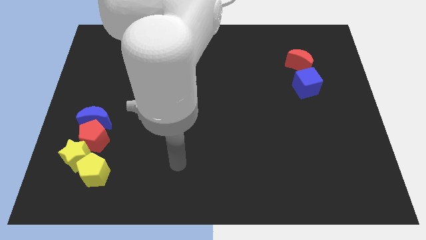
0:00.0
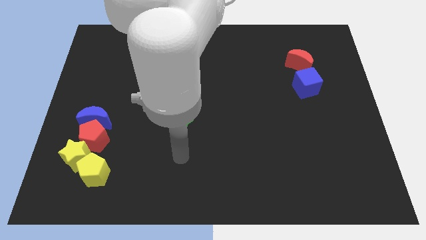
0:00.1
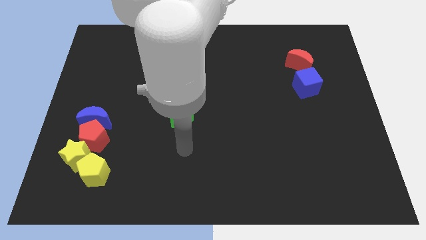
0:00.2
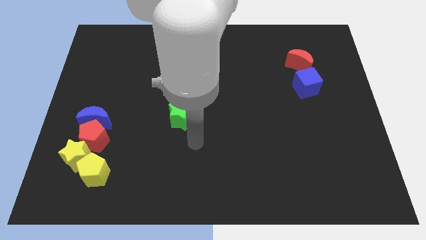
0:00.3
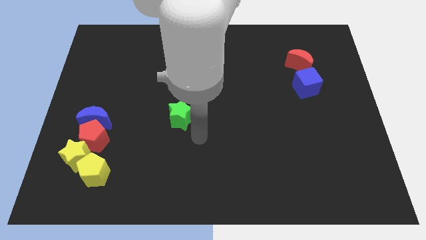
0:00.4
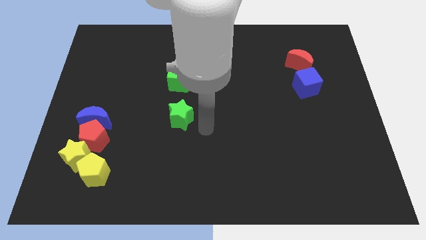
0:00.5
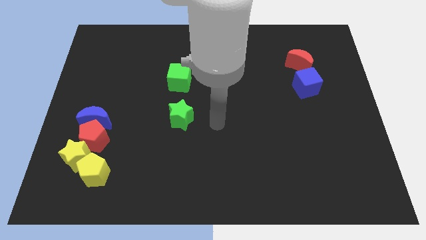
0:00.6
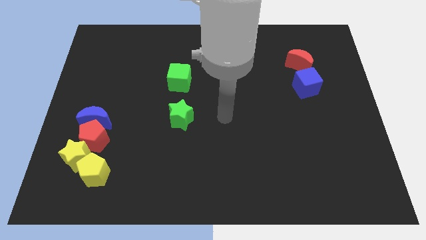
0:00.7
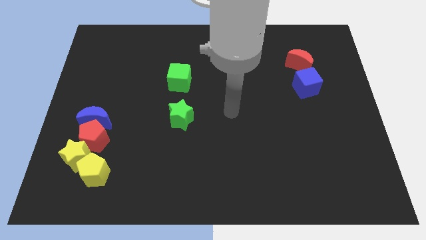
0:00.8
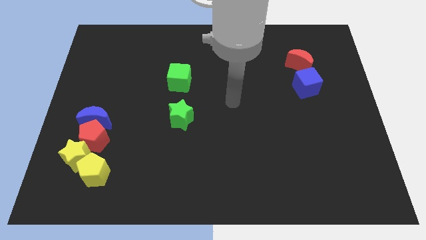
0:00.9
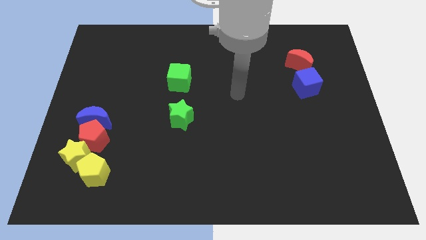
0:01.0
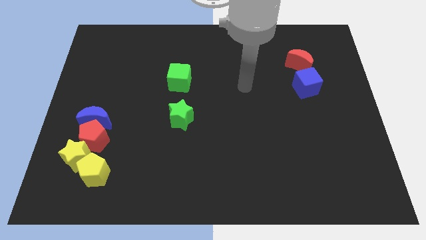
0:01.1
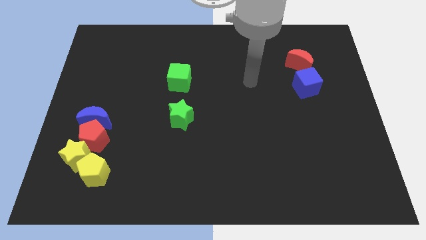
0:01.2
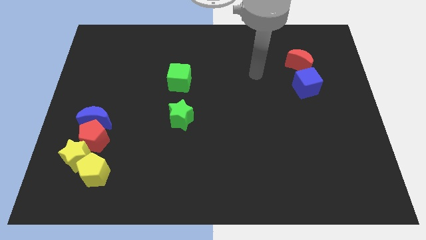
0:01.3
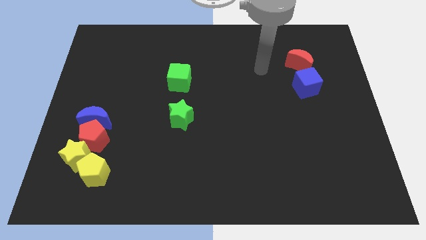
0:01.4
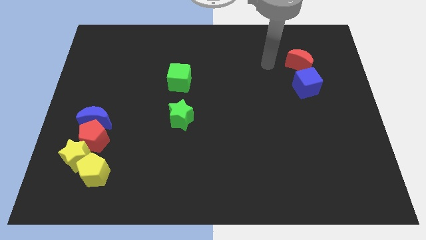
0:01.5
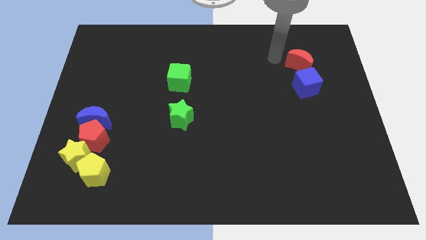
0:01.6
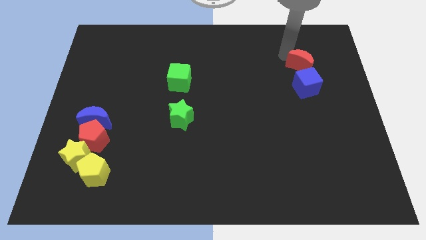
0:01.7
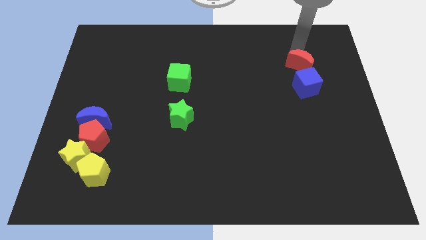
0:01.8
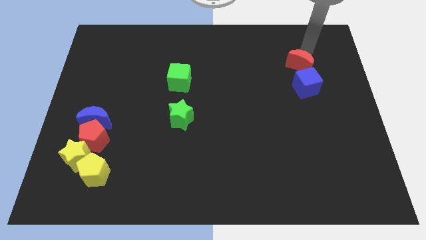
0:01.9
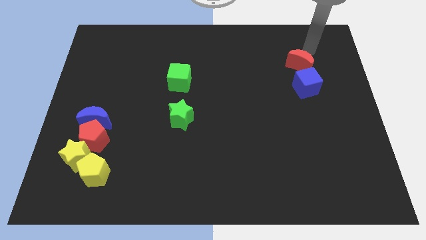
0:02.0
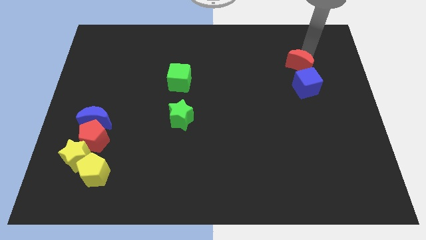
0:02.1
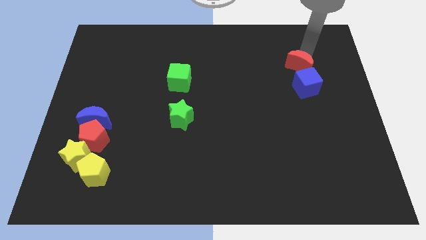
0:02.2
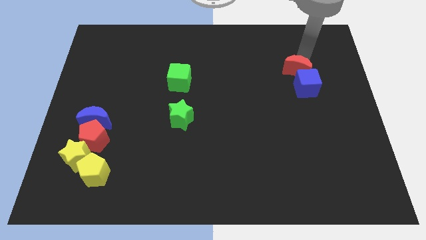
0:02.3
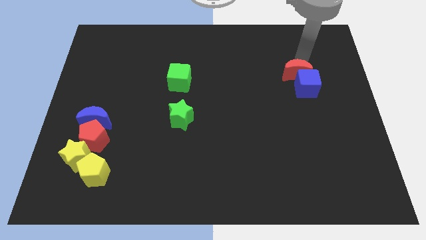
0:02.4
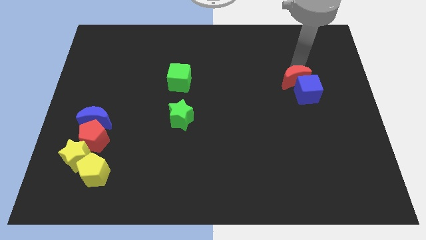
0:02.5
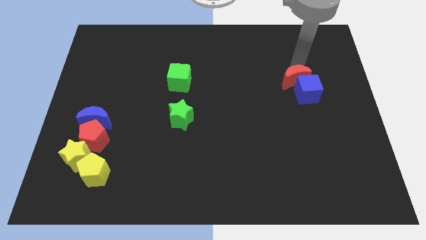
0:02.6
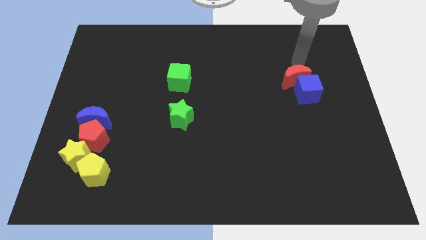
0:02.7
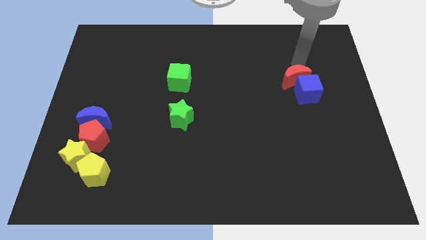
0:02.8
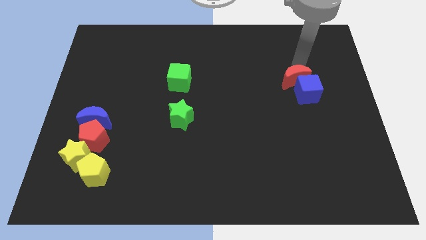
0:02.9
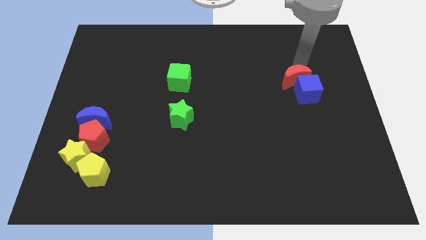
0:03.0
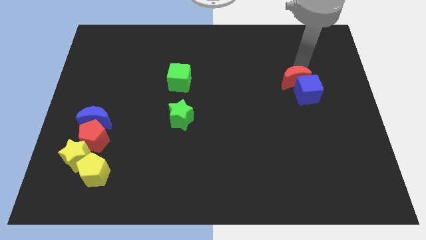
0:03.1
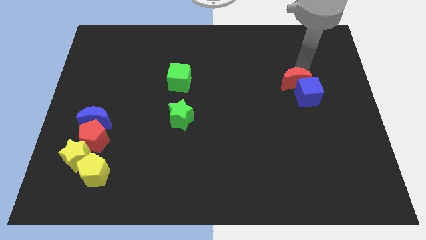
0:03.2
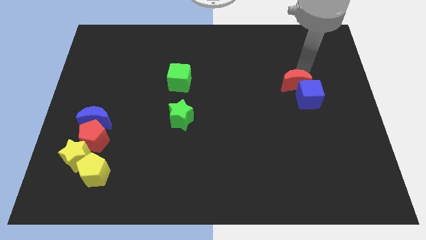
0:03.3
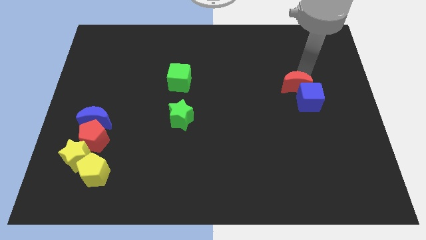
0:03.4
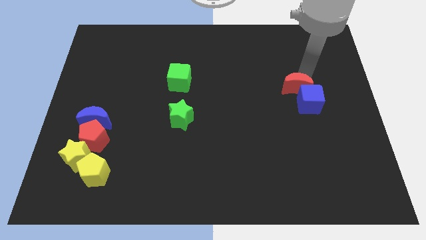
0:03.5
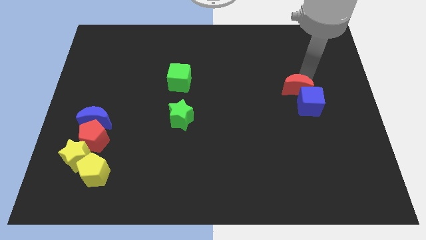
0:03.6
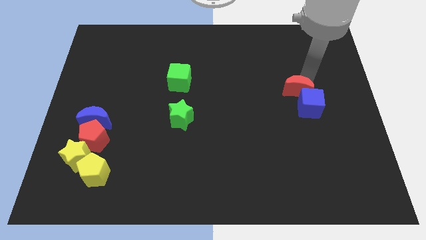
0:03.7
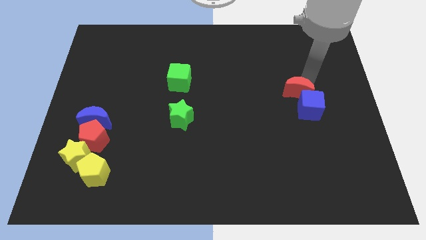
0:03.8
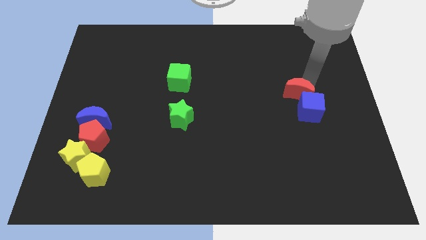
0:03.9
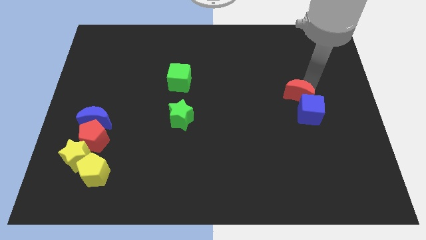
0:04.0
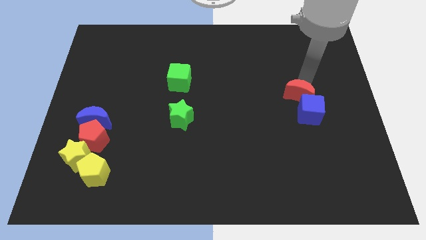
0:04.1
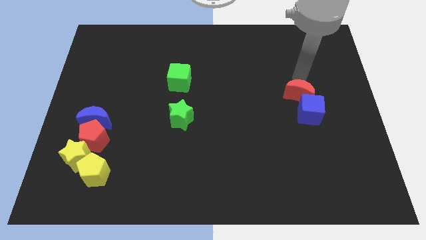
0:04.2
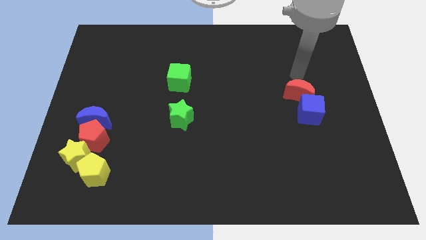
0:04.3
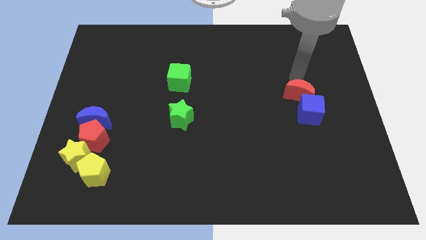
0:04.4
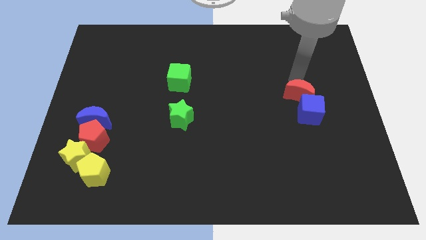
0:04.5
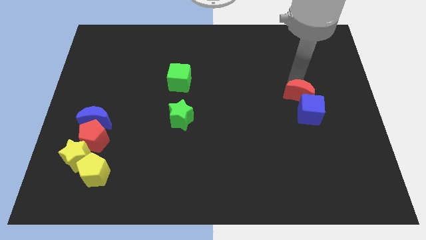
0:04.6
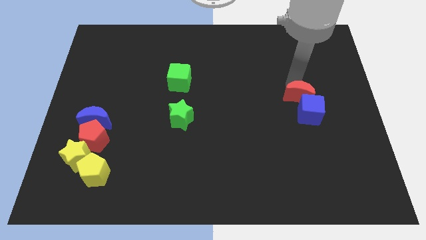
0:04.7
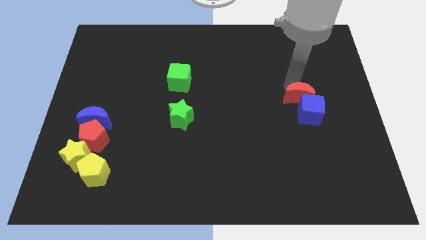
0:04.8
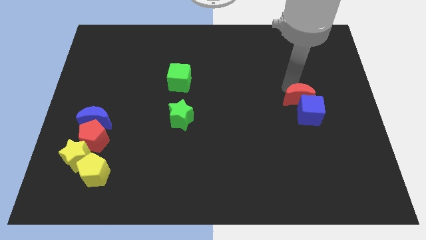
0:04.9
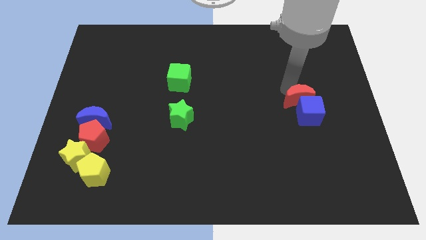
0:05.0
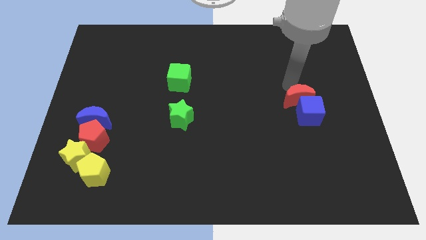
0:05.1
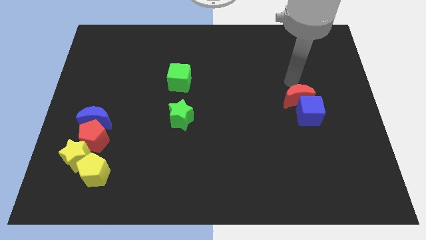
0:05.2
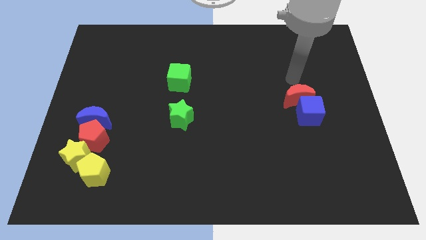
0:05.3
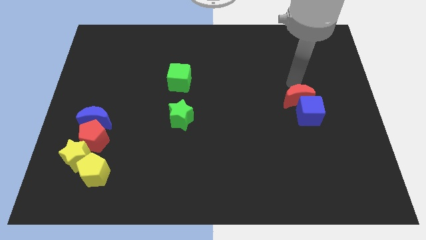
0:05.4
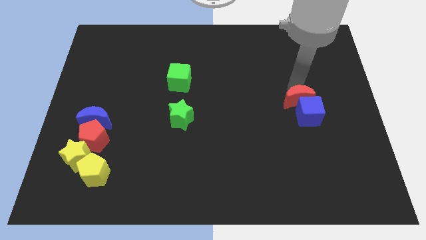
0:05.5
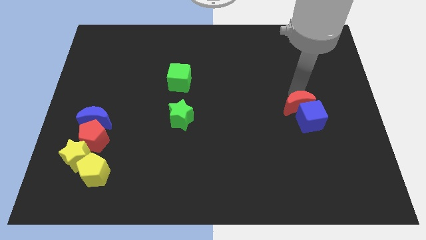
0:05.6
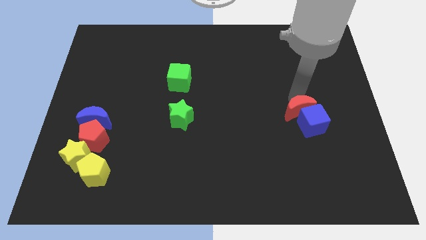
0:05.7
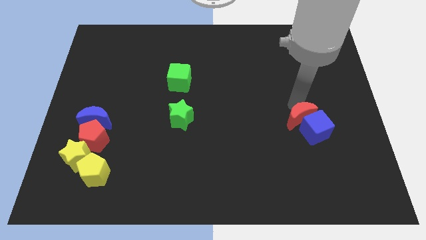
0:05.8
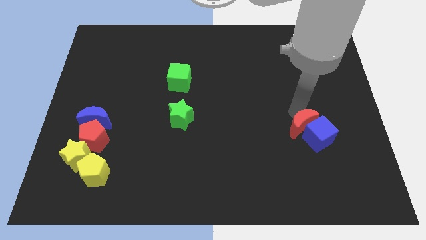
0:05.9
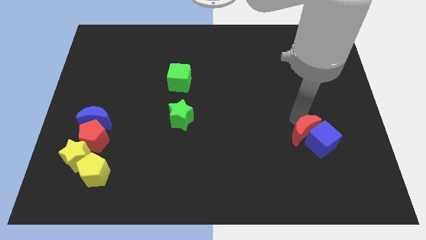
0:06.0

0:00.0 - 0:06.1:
push the red moon down

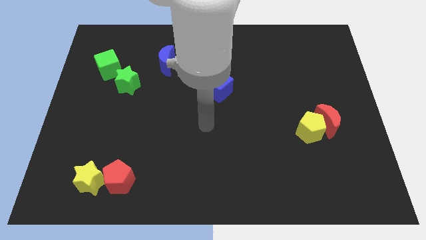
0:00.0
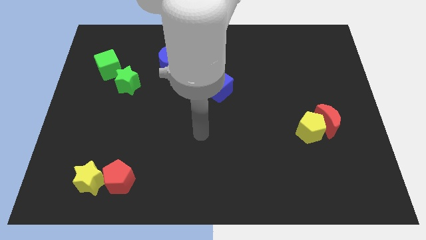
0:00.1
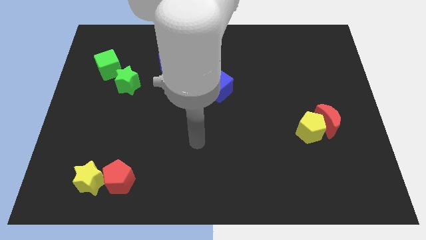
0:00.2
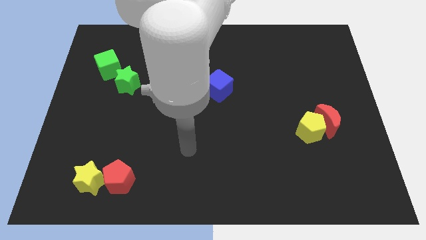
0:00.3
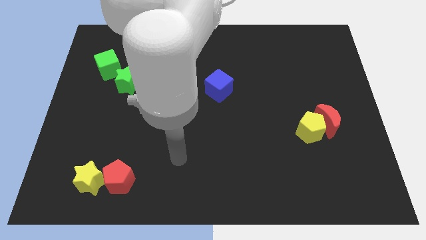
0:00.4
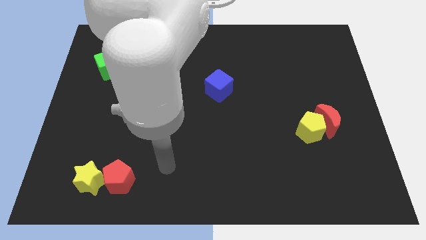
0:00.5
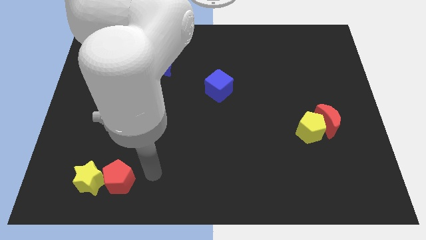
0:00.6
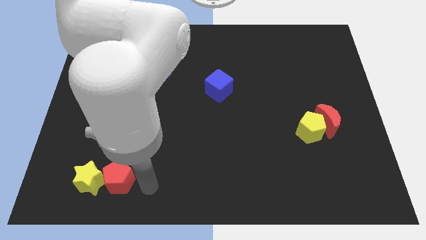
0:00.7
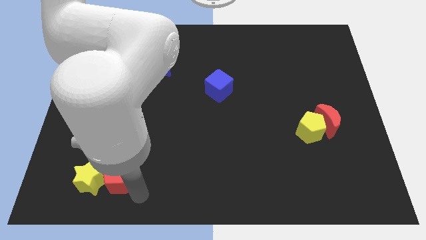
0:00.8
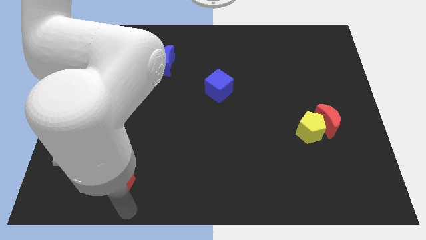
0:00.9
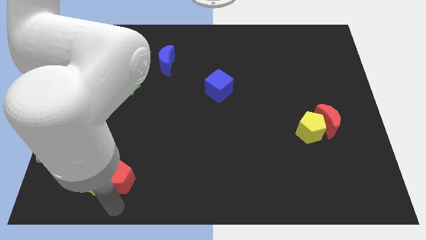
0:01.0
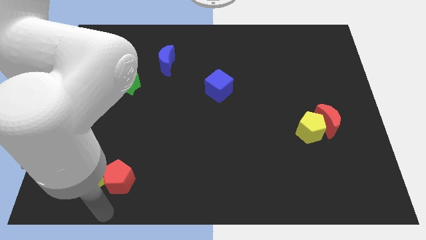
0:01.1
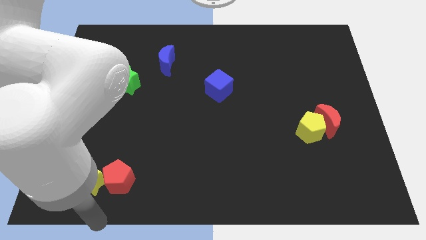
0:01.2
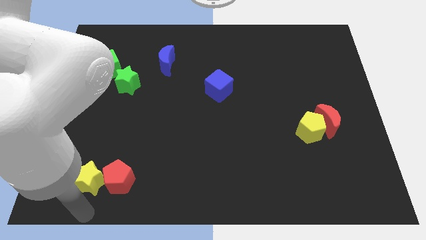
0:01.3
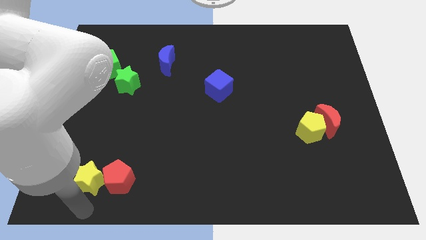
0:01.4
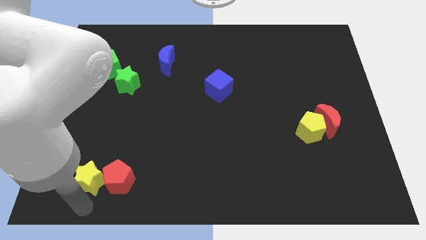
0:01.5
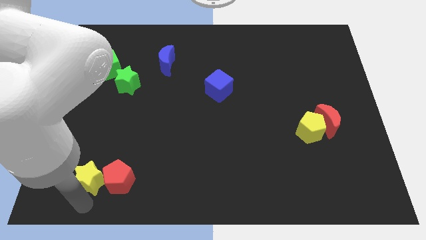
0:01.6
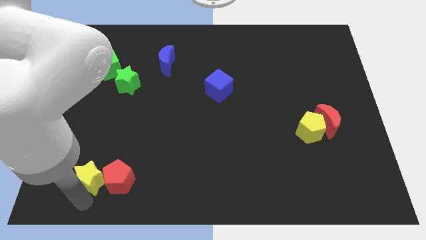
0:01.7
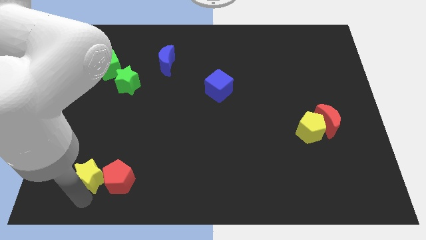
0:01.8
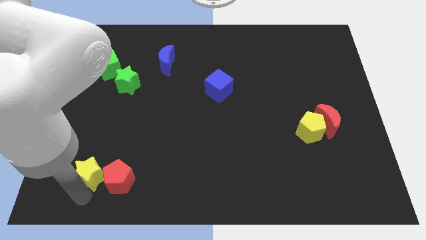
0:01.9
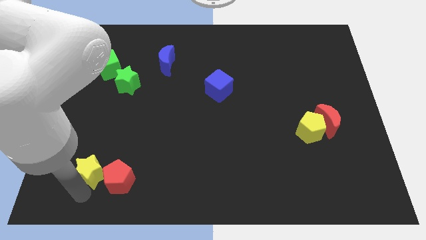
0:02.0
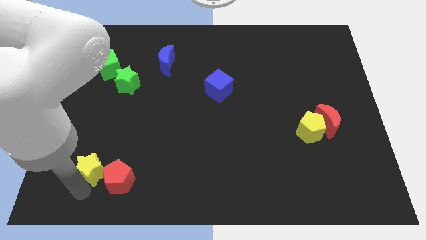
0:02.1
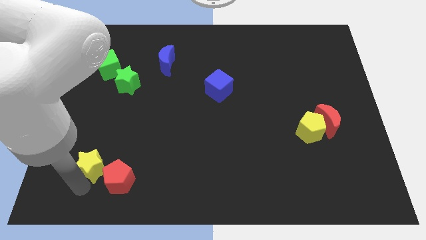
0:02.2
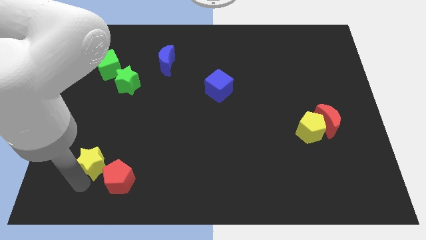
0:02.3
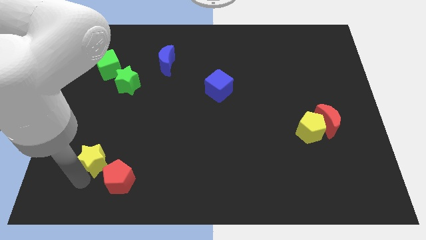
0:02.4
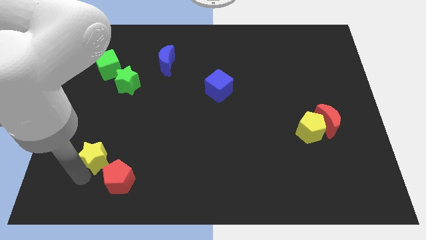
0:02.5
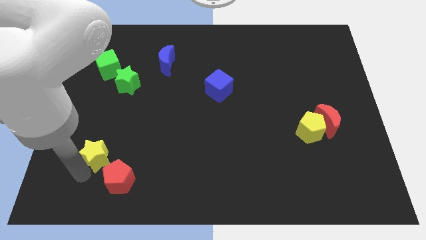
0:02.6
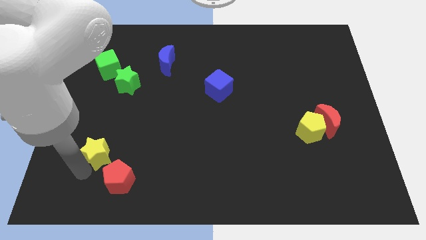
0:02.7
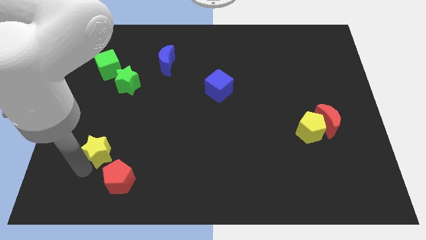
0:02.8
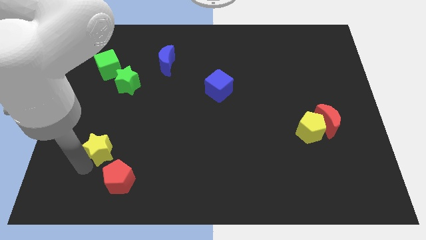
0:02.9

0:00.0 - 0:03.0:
slightly move the yellow star up
